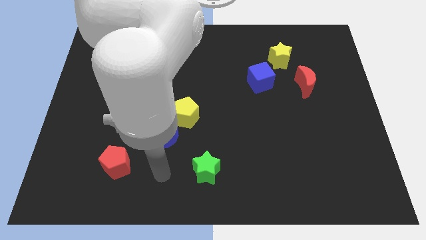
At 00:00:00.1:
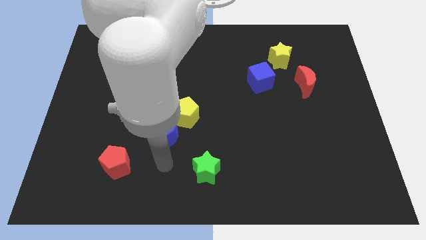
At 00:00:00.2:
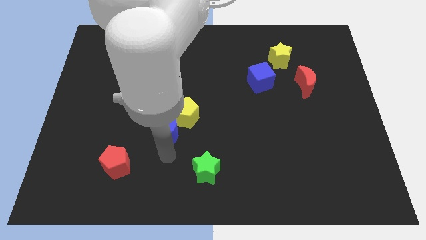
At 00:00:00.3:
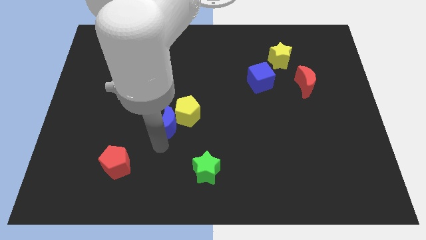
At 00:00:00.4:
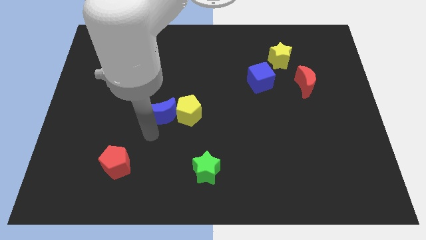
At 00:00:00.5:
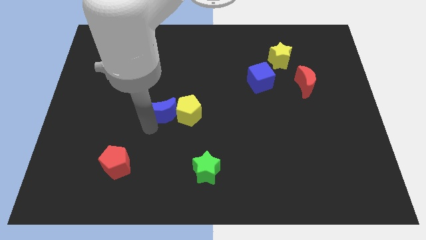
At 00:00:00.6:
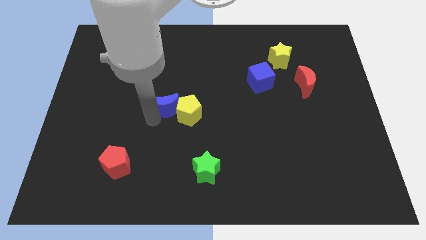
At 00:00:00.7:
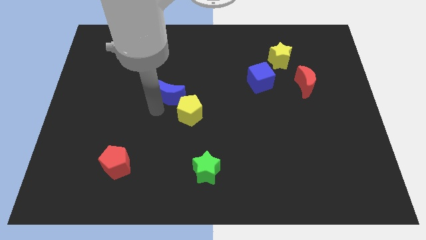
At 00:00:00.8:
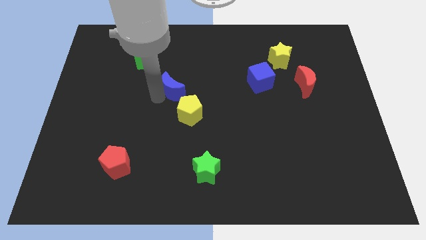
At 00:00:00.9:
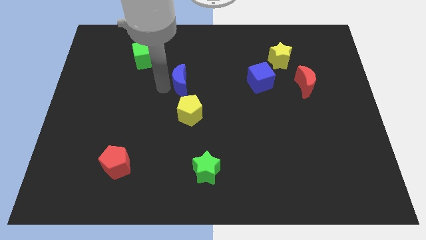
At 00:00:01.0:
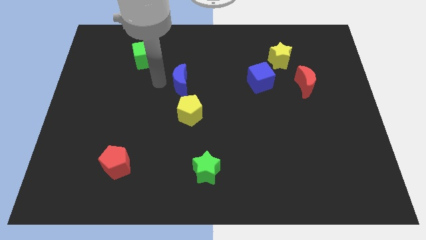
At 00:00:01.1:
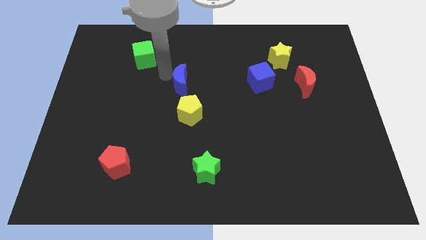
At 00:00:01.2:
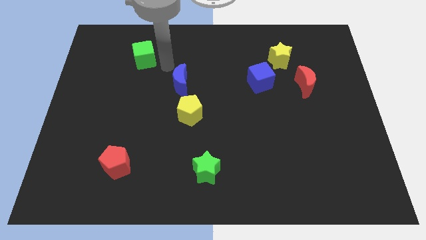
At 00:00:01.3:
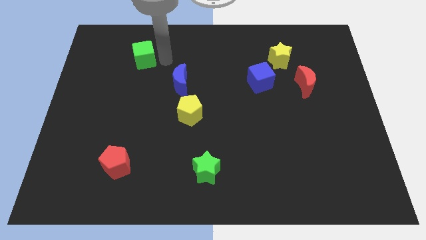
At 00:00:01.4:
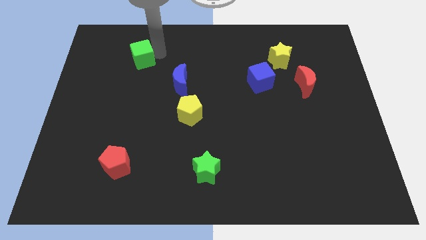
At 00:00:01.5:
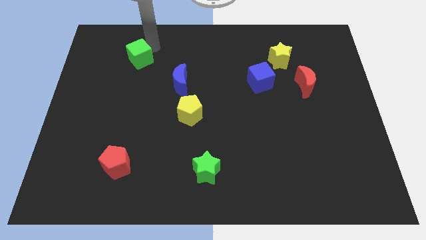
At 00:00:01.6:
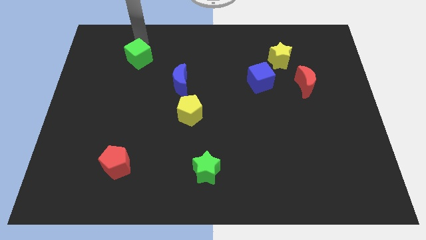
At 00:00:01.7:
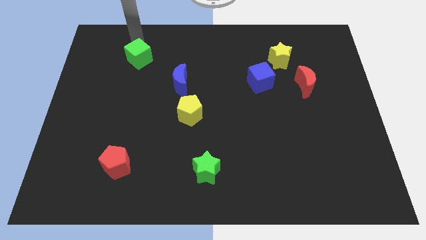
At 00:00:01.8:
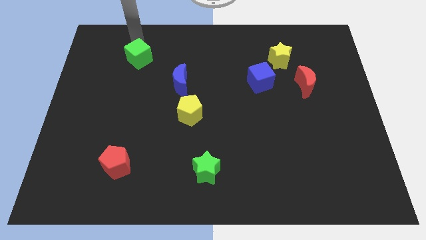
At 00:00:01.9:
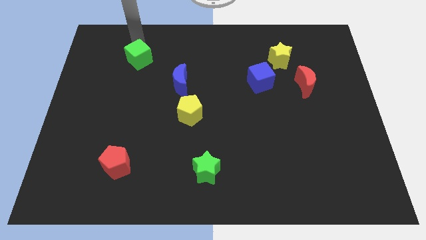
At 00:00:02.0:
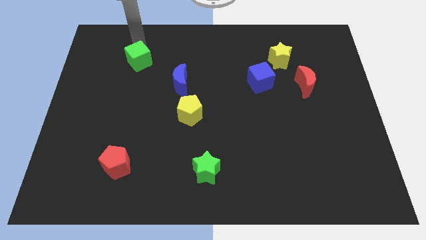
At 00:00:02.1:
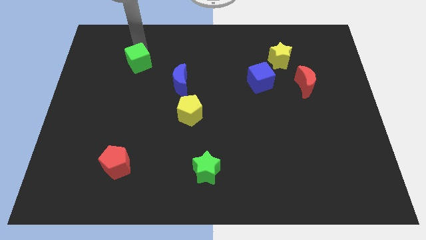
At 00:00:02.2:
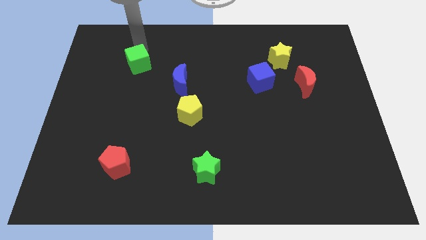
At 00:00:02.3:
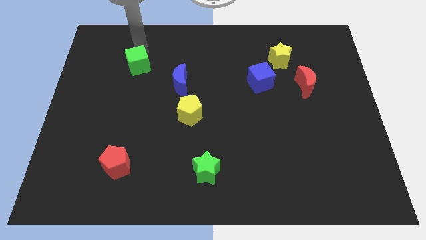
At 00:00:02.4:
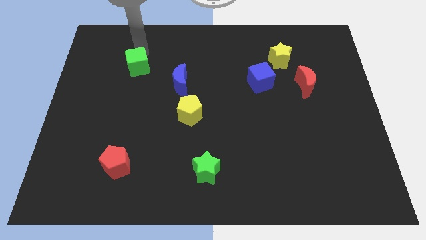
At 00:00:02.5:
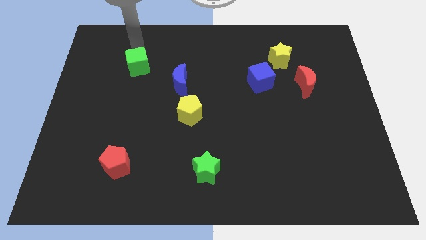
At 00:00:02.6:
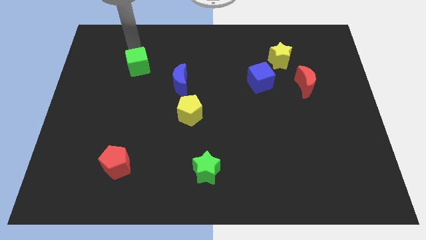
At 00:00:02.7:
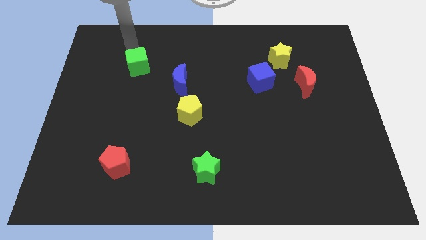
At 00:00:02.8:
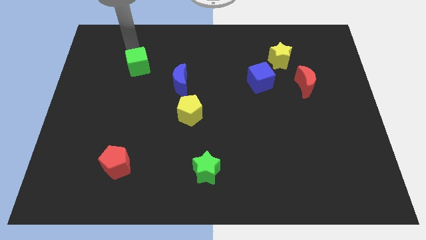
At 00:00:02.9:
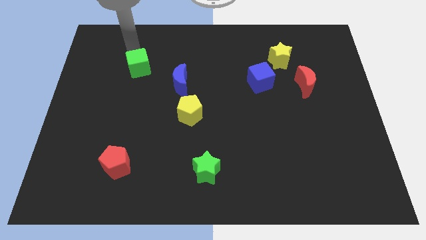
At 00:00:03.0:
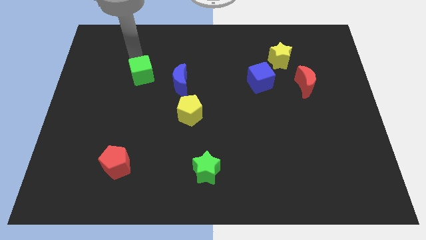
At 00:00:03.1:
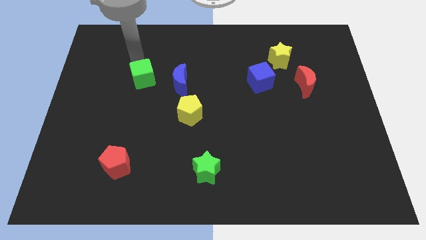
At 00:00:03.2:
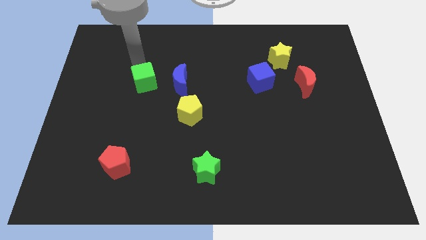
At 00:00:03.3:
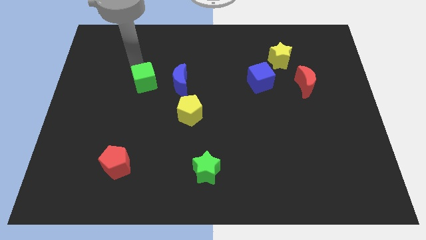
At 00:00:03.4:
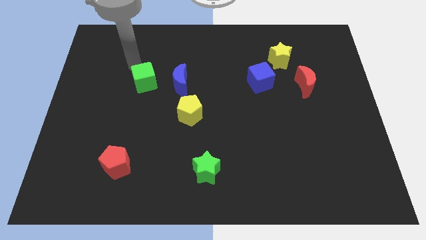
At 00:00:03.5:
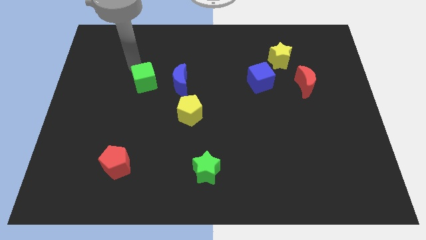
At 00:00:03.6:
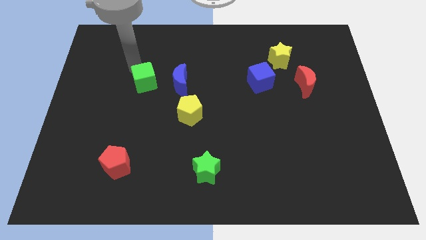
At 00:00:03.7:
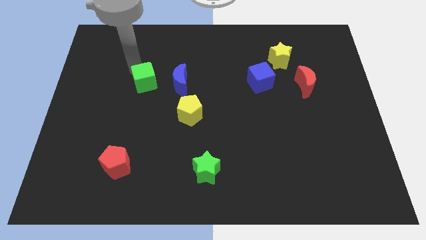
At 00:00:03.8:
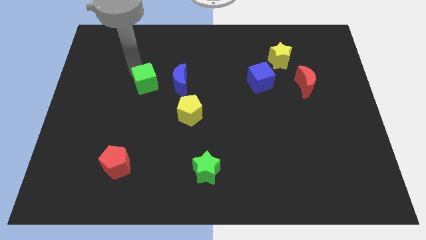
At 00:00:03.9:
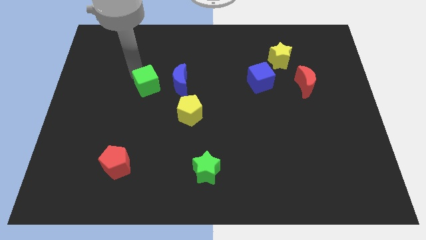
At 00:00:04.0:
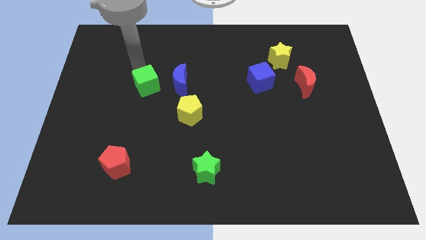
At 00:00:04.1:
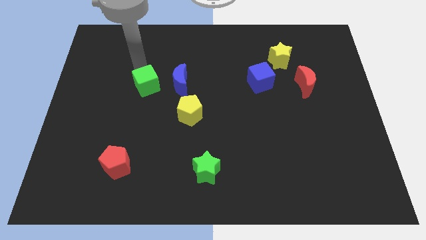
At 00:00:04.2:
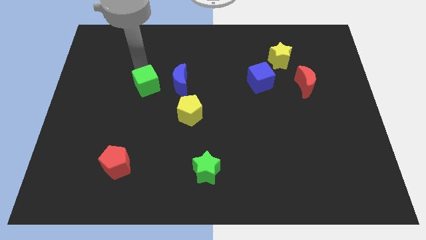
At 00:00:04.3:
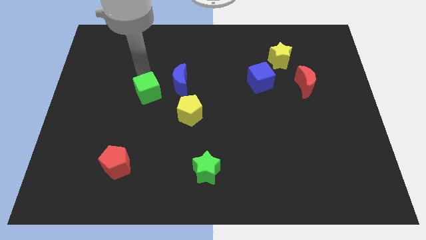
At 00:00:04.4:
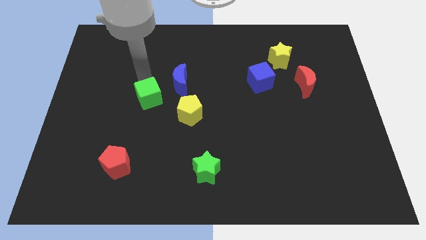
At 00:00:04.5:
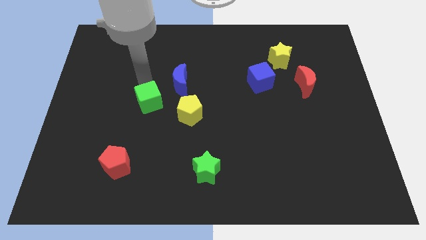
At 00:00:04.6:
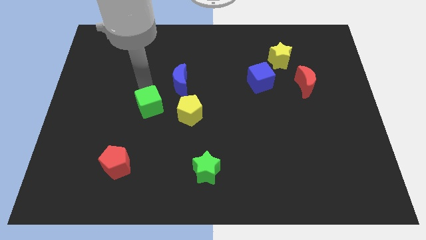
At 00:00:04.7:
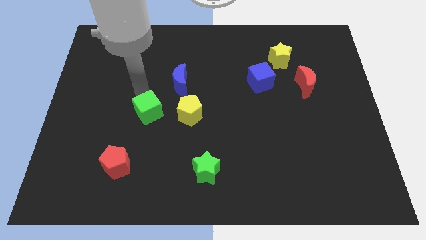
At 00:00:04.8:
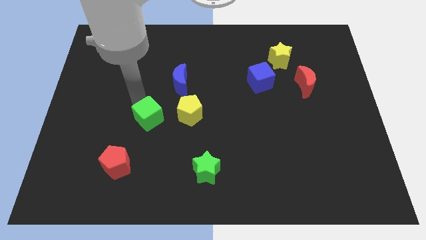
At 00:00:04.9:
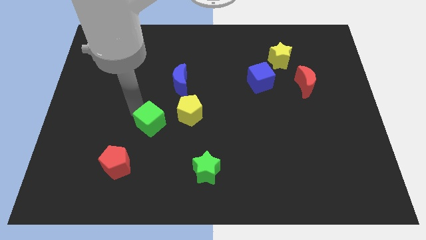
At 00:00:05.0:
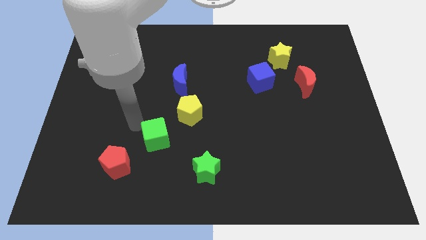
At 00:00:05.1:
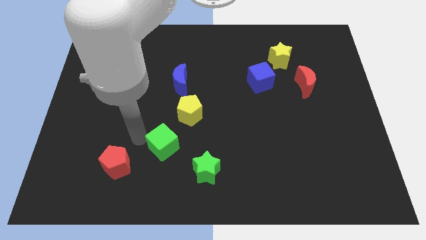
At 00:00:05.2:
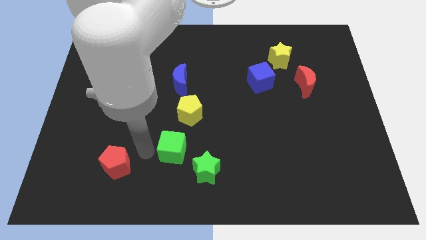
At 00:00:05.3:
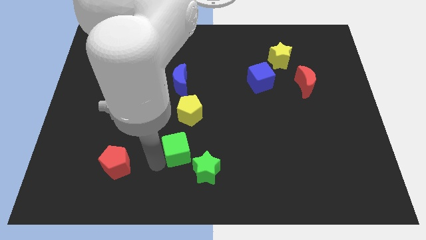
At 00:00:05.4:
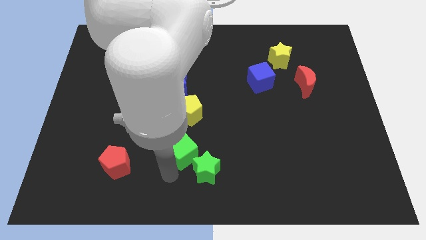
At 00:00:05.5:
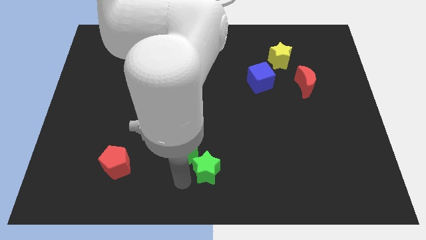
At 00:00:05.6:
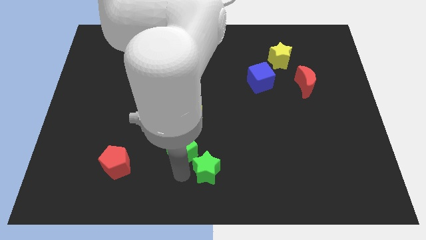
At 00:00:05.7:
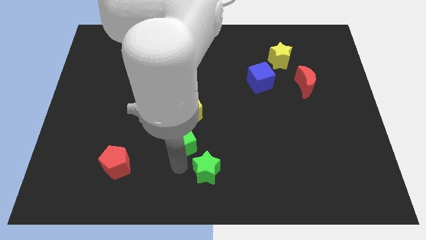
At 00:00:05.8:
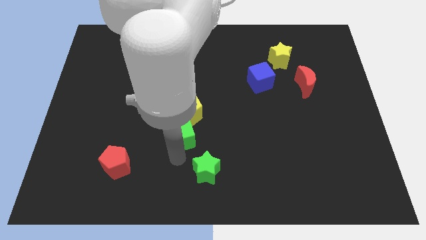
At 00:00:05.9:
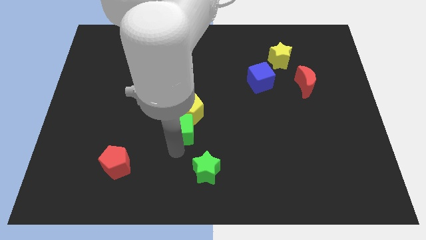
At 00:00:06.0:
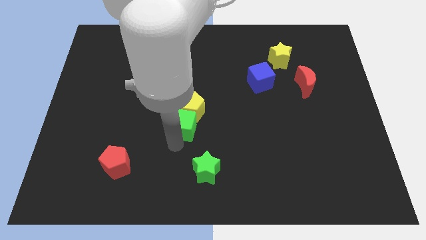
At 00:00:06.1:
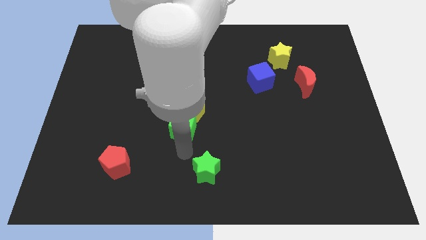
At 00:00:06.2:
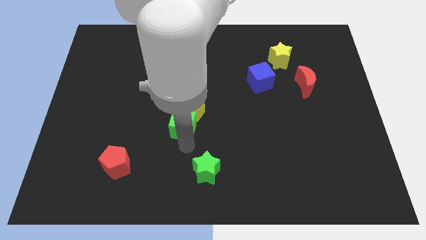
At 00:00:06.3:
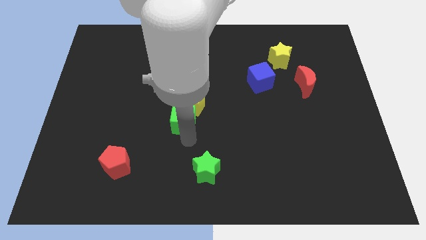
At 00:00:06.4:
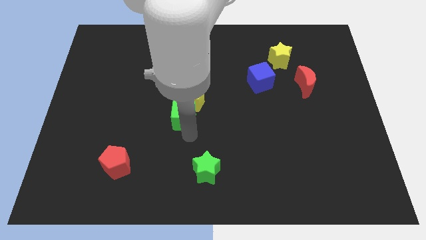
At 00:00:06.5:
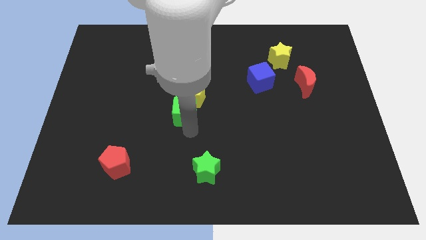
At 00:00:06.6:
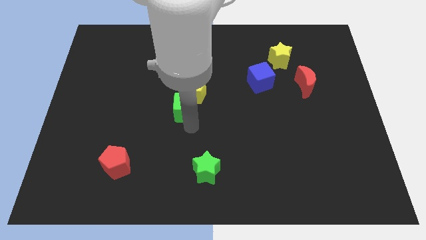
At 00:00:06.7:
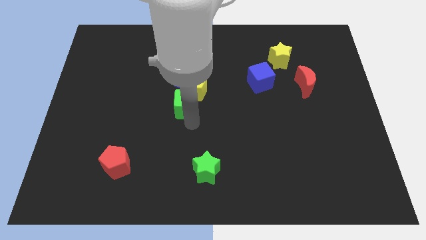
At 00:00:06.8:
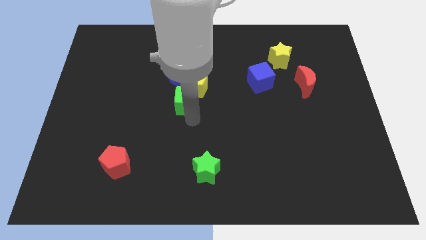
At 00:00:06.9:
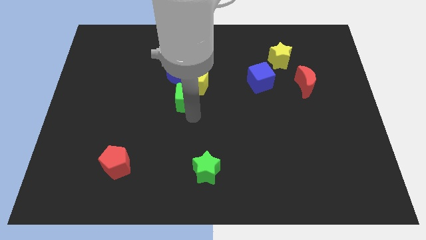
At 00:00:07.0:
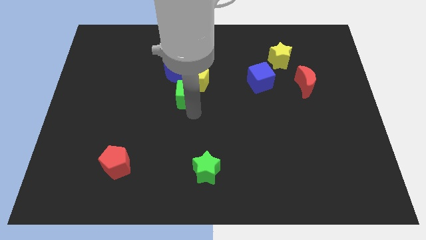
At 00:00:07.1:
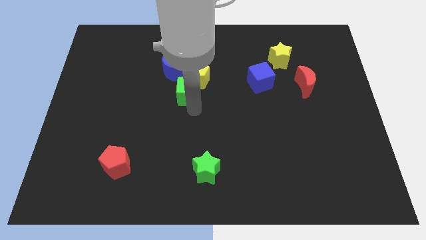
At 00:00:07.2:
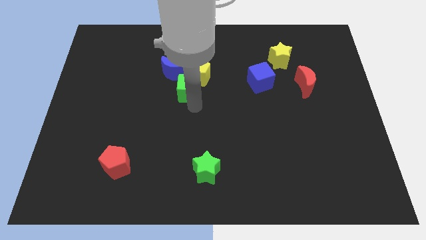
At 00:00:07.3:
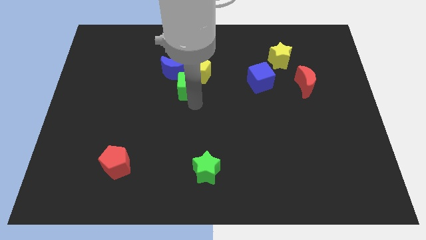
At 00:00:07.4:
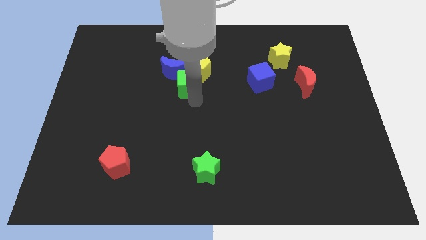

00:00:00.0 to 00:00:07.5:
put the green cube next to the blue moon
